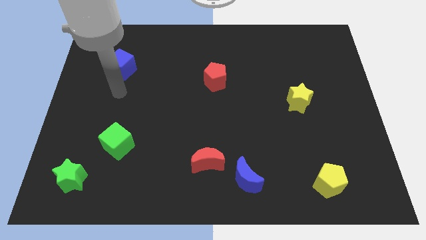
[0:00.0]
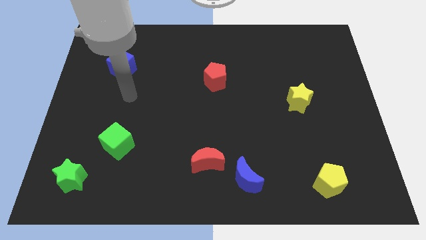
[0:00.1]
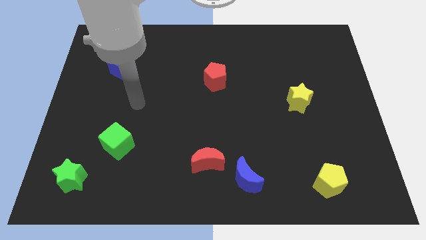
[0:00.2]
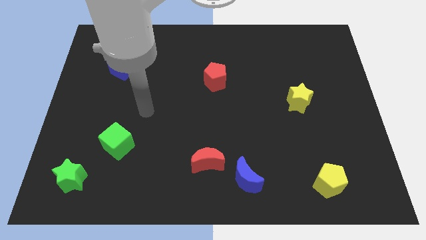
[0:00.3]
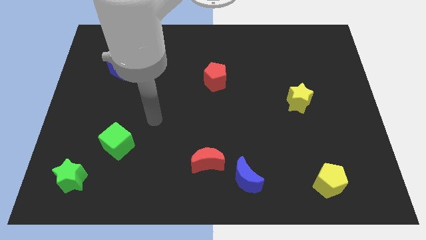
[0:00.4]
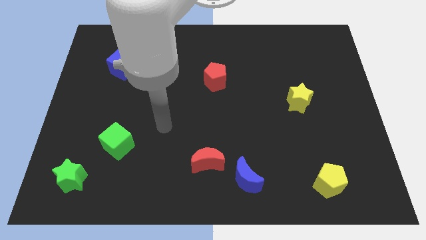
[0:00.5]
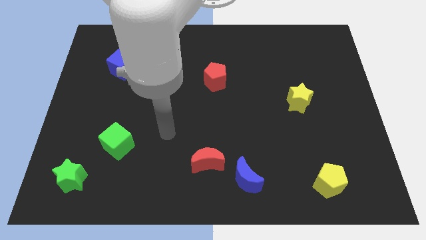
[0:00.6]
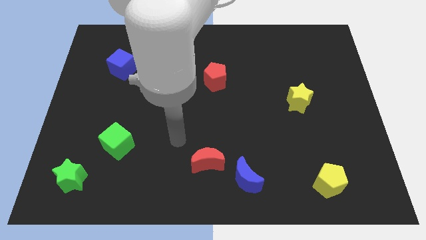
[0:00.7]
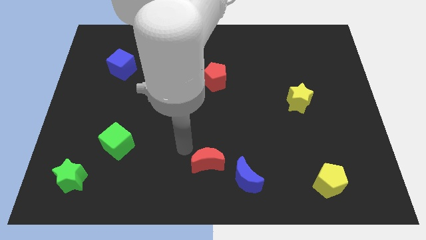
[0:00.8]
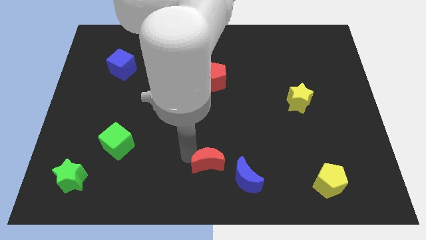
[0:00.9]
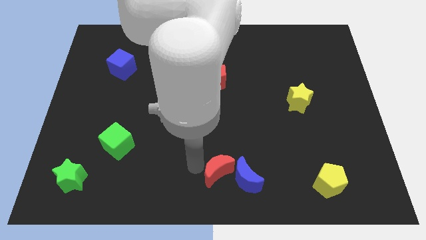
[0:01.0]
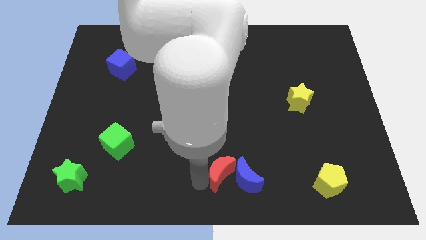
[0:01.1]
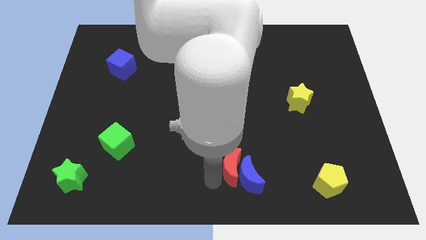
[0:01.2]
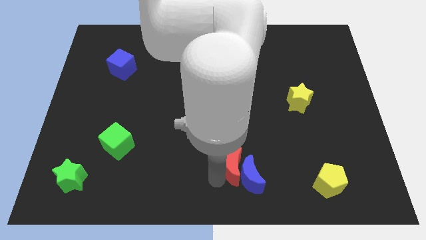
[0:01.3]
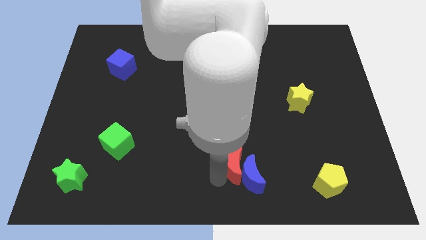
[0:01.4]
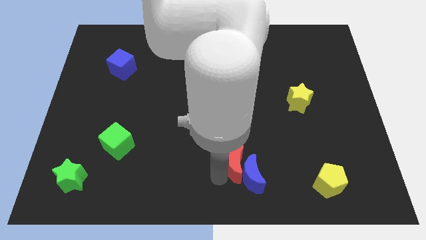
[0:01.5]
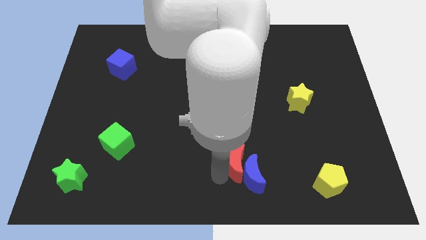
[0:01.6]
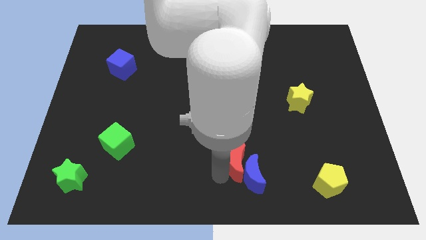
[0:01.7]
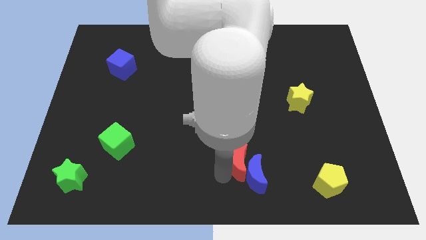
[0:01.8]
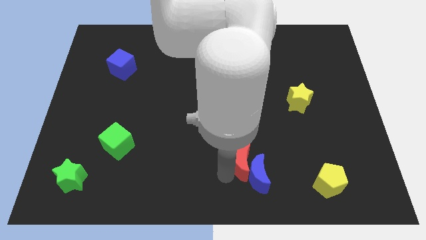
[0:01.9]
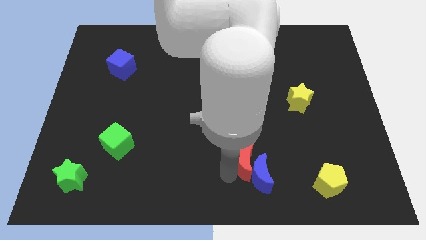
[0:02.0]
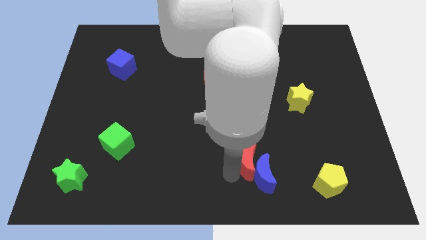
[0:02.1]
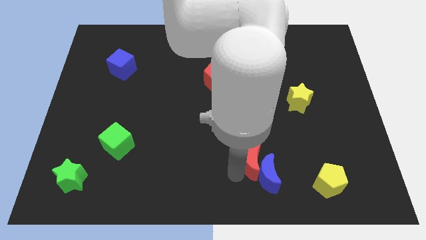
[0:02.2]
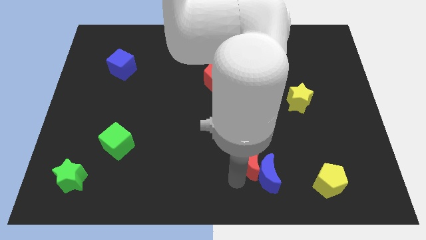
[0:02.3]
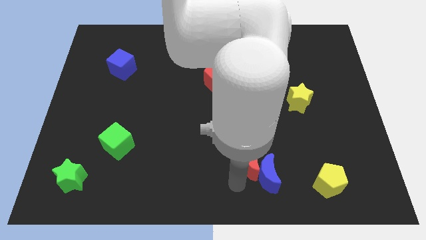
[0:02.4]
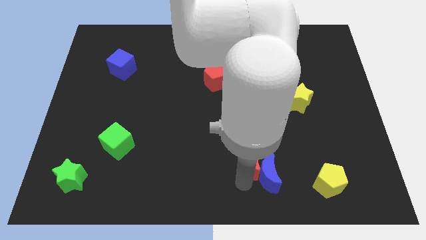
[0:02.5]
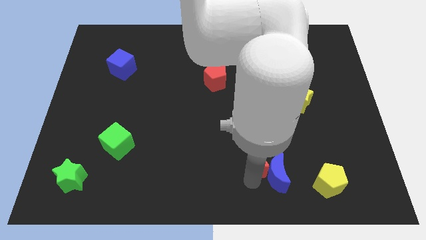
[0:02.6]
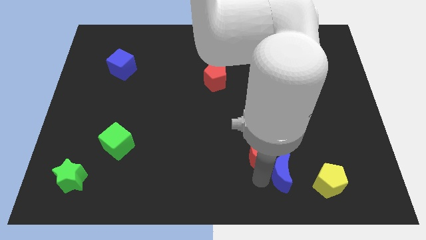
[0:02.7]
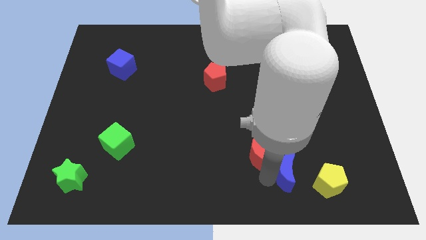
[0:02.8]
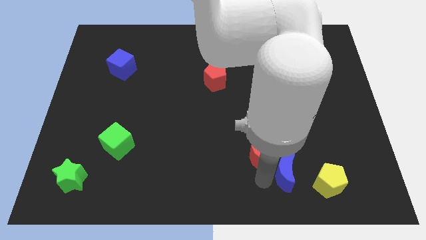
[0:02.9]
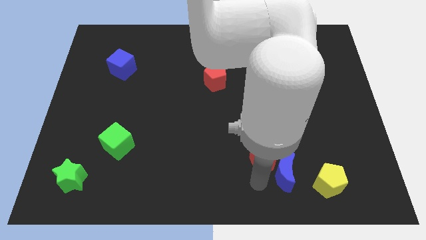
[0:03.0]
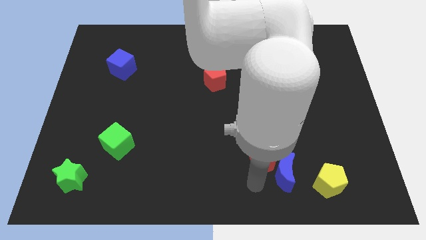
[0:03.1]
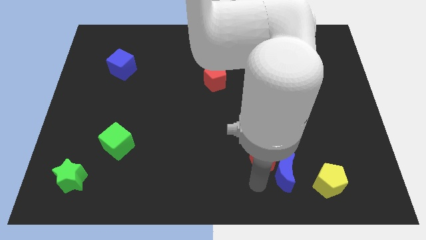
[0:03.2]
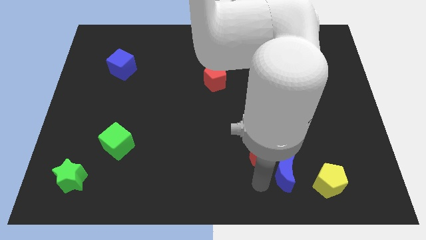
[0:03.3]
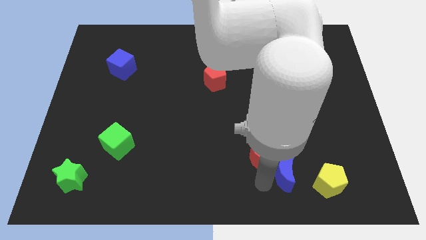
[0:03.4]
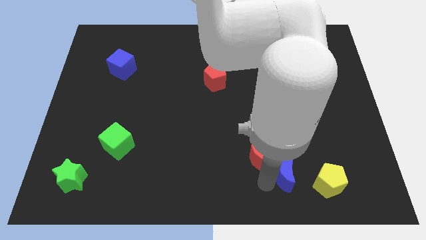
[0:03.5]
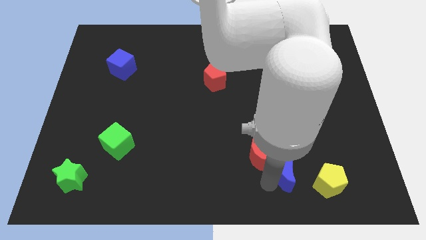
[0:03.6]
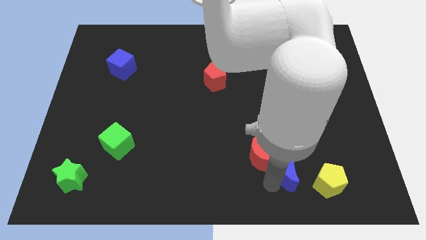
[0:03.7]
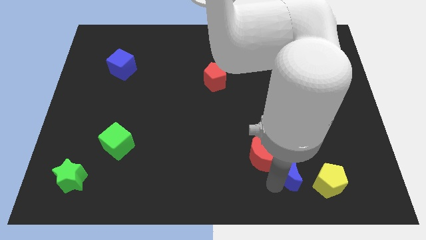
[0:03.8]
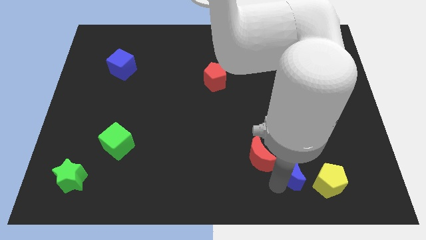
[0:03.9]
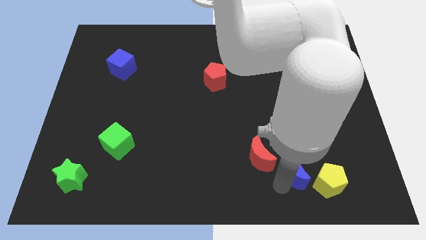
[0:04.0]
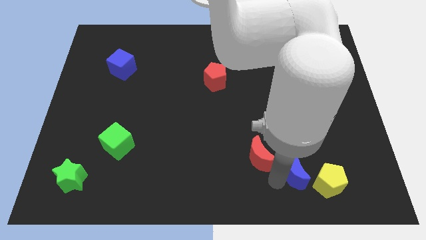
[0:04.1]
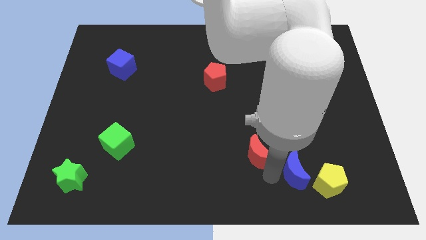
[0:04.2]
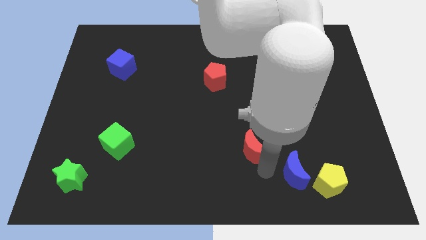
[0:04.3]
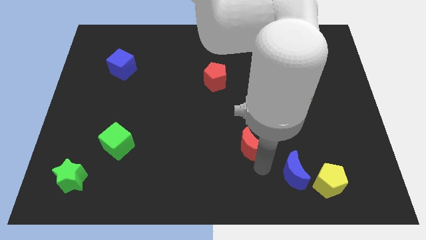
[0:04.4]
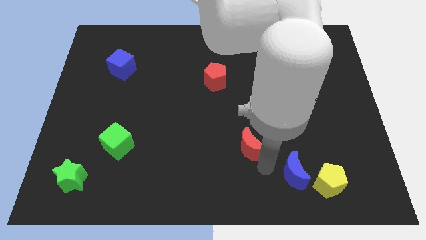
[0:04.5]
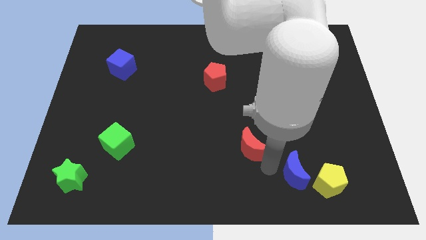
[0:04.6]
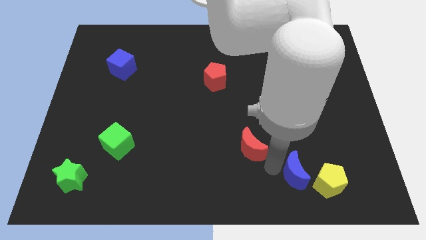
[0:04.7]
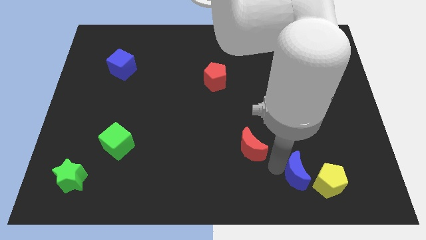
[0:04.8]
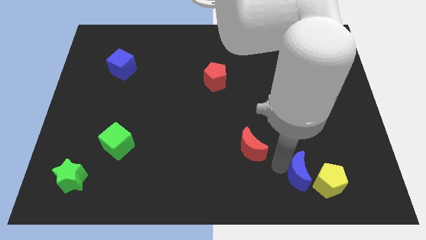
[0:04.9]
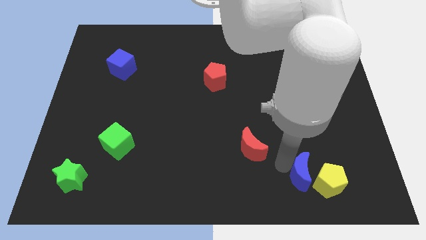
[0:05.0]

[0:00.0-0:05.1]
push the blue moon to the yellow pentagon

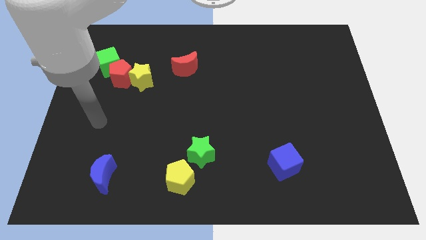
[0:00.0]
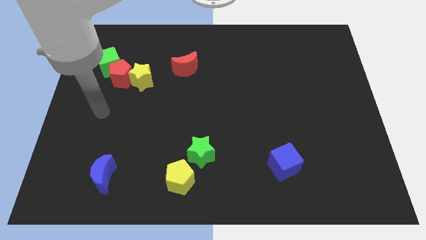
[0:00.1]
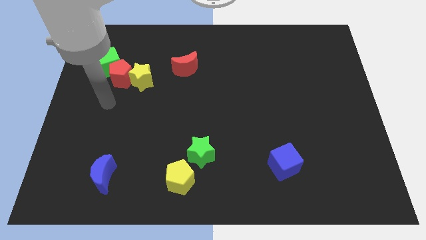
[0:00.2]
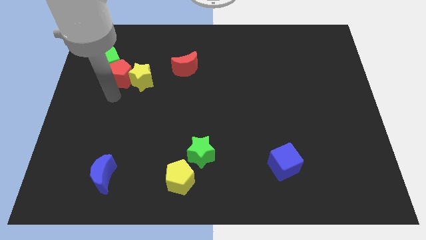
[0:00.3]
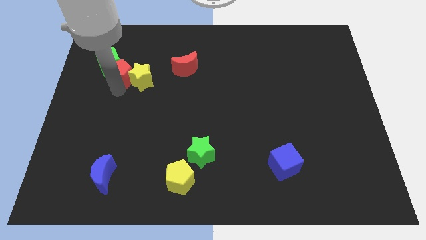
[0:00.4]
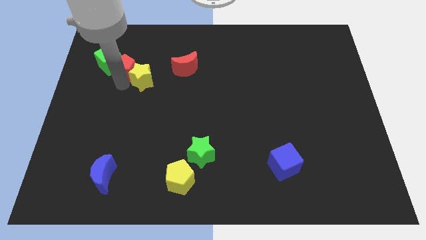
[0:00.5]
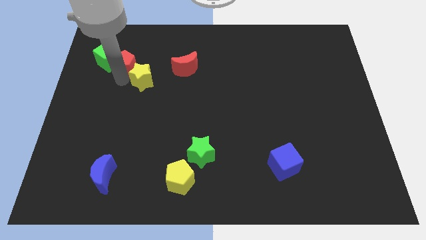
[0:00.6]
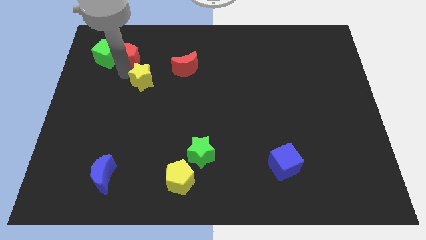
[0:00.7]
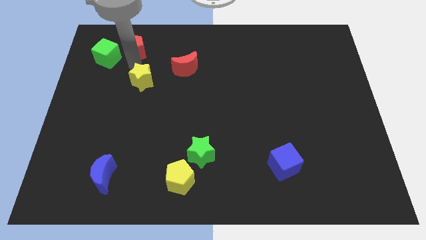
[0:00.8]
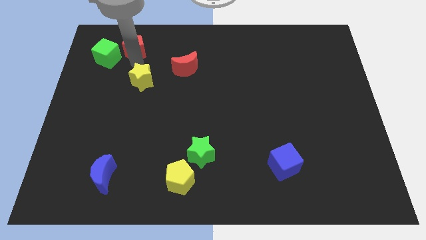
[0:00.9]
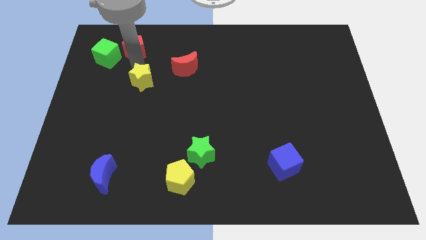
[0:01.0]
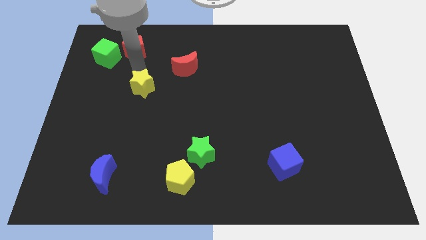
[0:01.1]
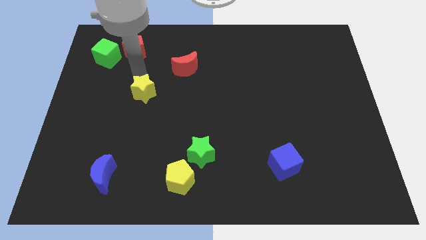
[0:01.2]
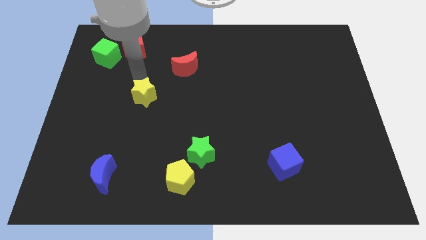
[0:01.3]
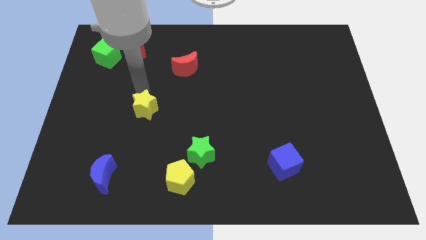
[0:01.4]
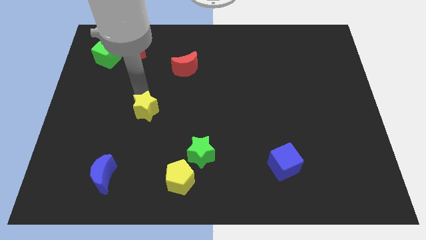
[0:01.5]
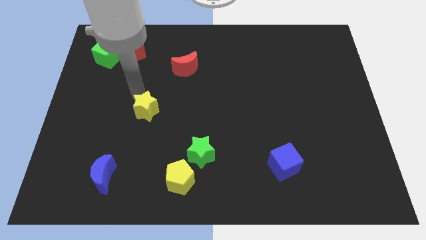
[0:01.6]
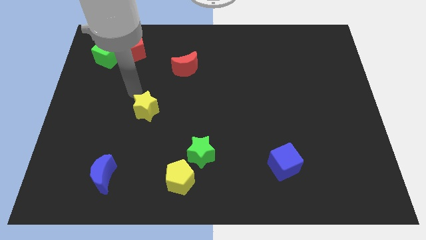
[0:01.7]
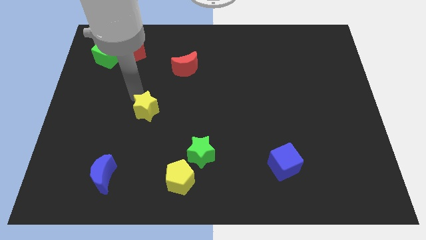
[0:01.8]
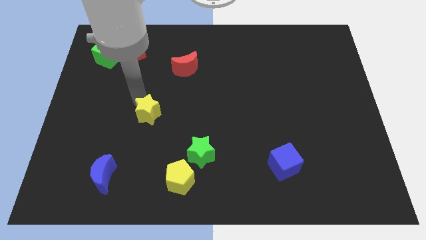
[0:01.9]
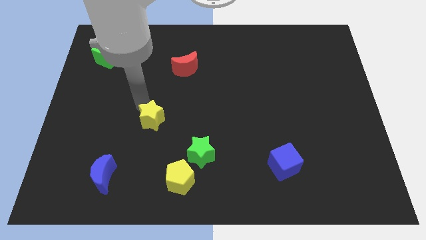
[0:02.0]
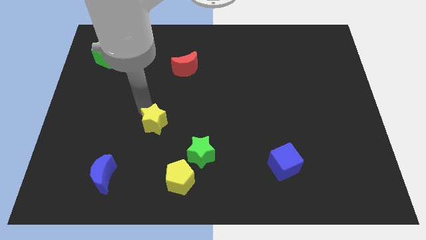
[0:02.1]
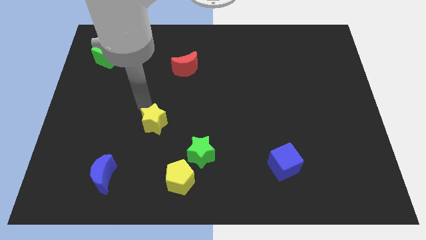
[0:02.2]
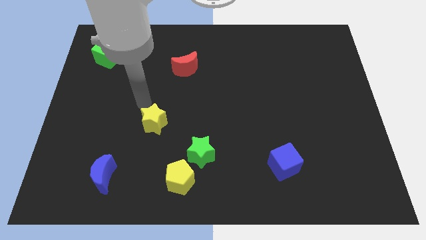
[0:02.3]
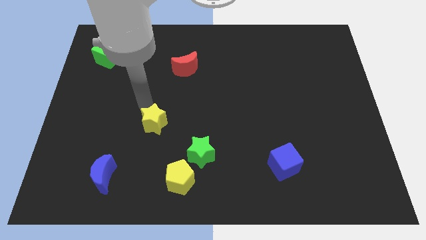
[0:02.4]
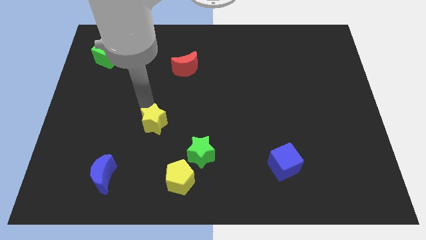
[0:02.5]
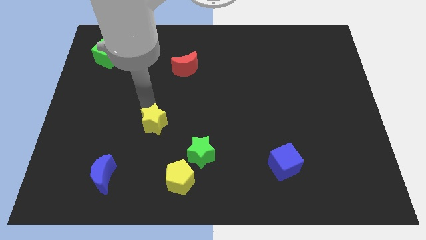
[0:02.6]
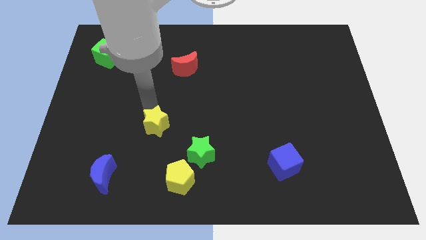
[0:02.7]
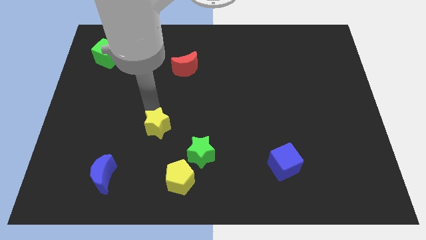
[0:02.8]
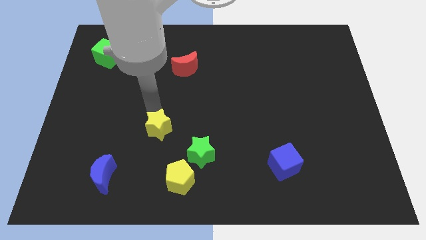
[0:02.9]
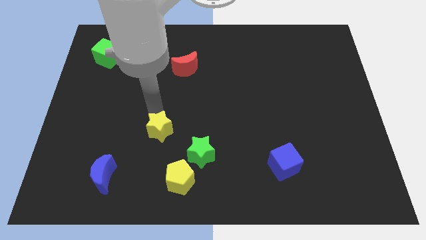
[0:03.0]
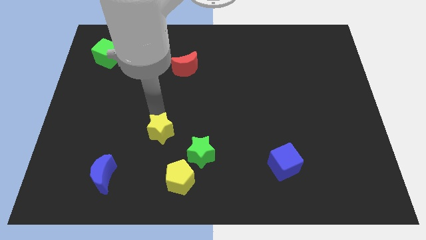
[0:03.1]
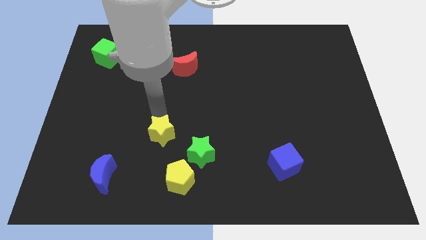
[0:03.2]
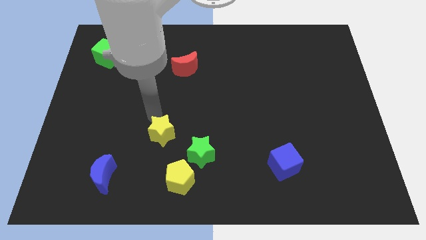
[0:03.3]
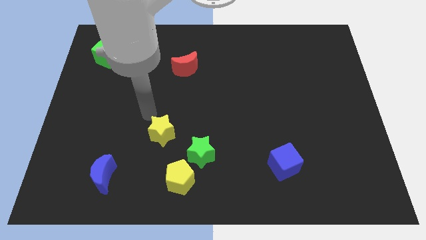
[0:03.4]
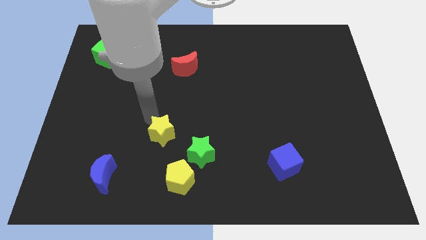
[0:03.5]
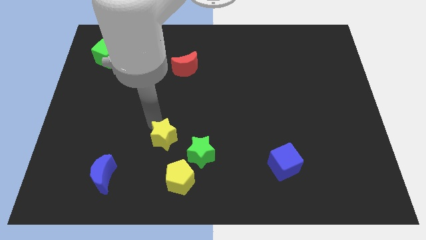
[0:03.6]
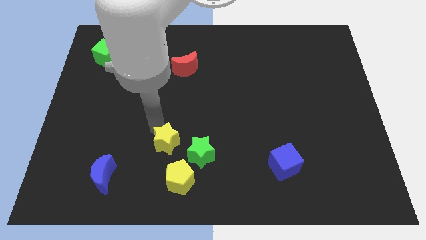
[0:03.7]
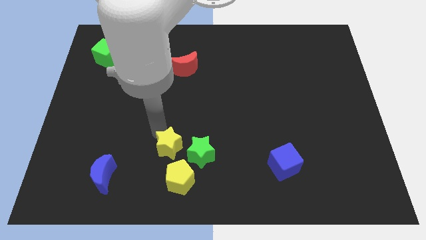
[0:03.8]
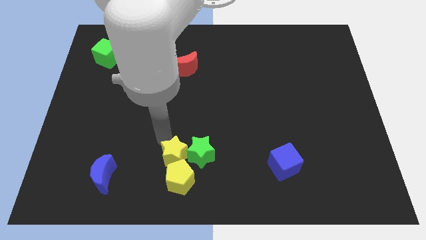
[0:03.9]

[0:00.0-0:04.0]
slide the yellow star next to the yellow pentagon
